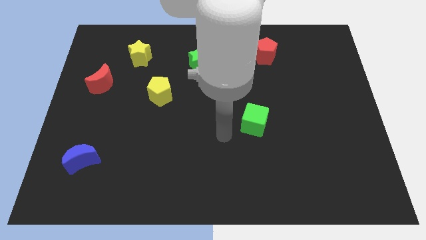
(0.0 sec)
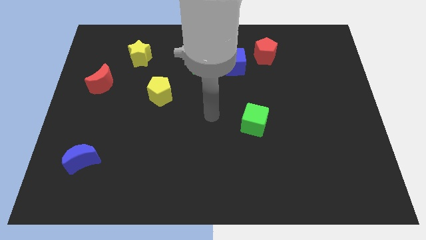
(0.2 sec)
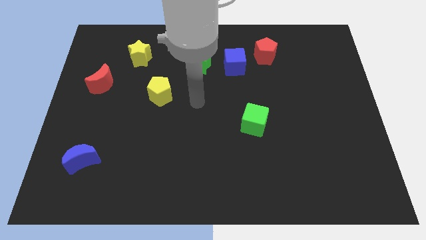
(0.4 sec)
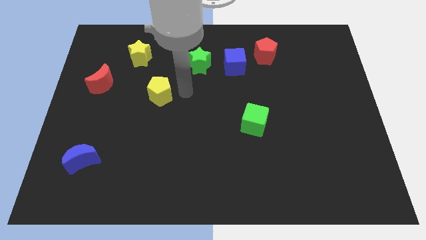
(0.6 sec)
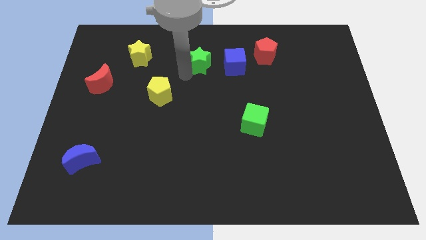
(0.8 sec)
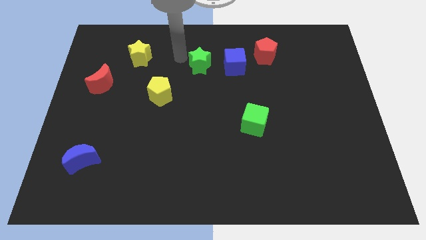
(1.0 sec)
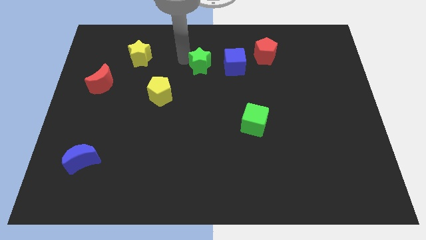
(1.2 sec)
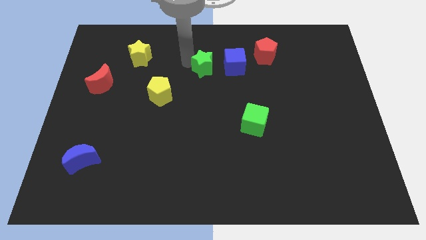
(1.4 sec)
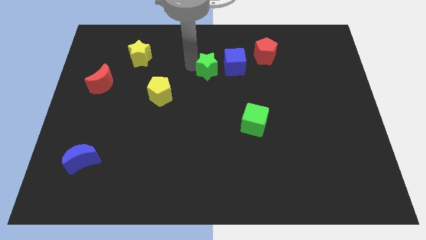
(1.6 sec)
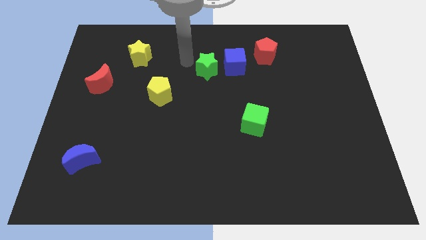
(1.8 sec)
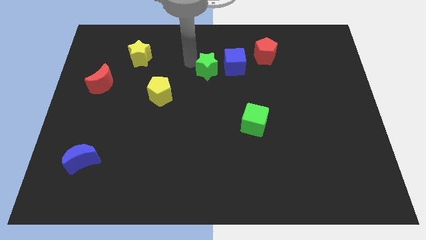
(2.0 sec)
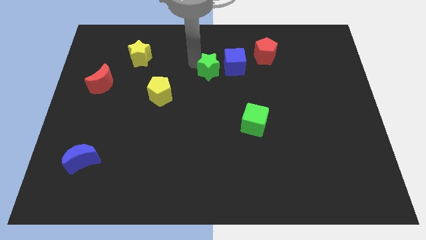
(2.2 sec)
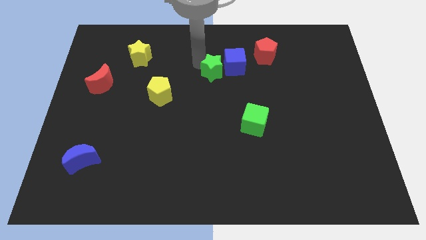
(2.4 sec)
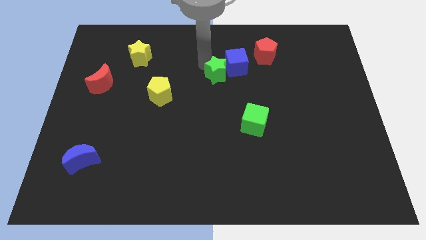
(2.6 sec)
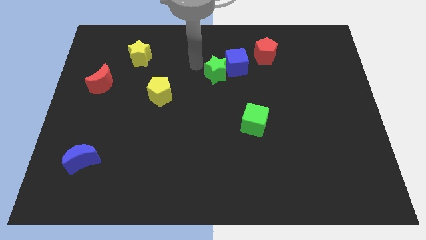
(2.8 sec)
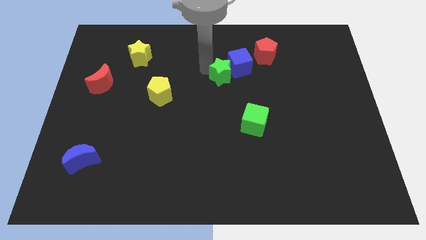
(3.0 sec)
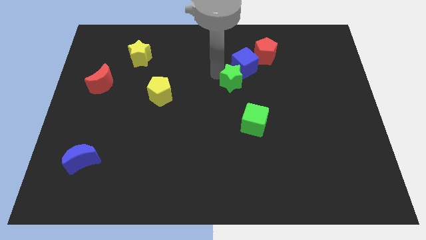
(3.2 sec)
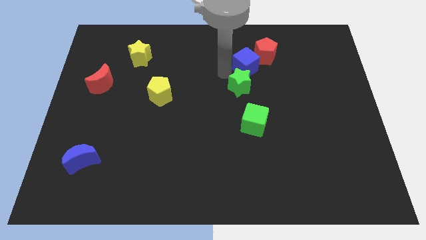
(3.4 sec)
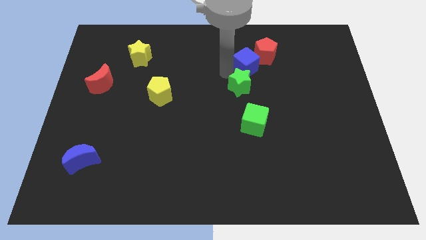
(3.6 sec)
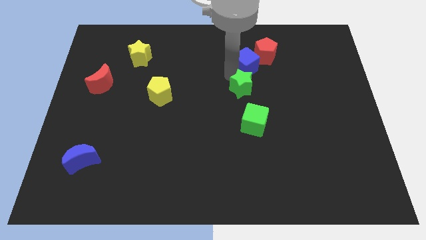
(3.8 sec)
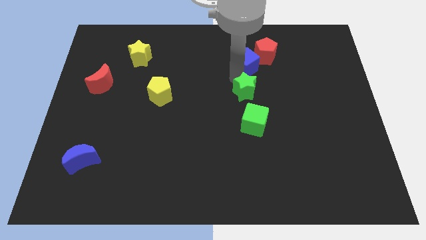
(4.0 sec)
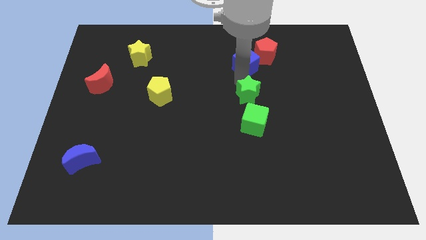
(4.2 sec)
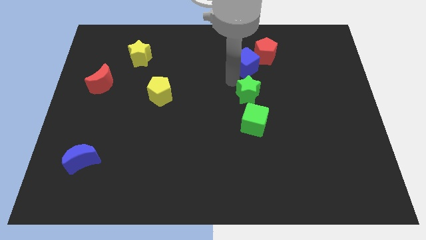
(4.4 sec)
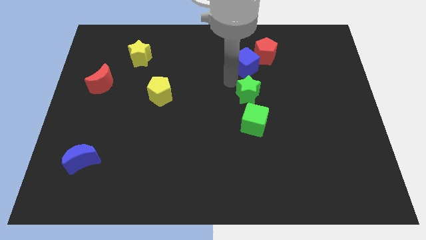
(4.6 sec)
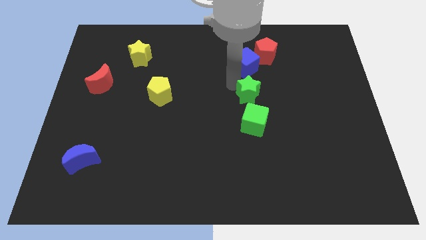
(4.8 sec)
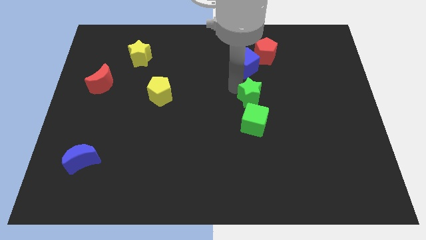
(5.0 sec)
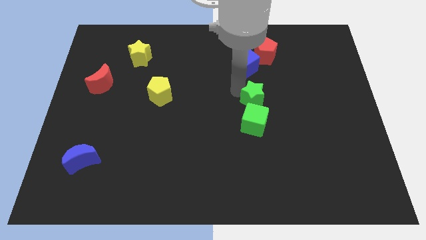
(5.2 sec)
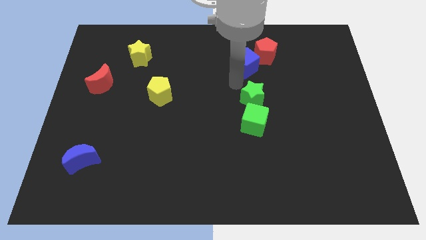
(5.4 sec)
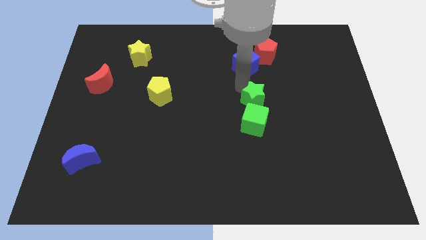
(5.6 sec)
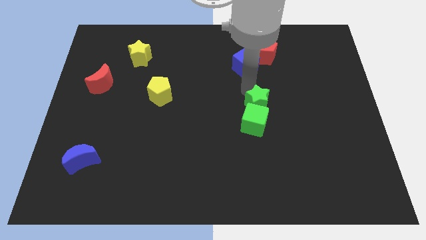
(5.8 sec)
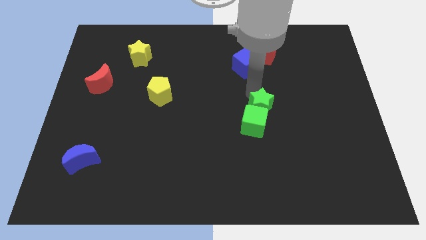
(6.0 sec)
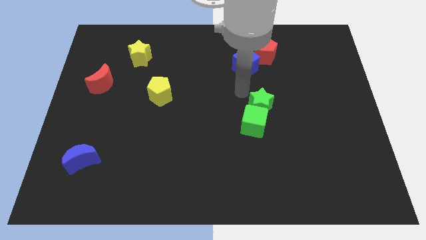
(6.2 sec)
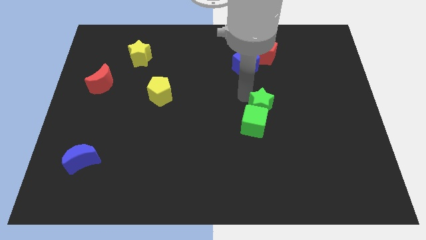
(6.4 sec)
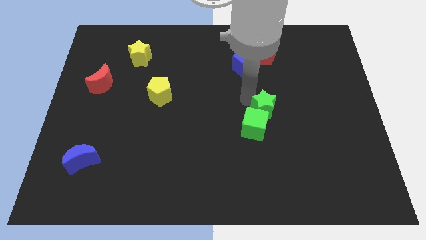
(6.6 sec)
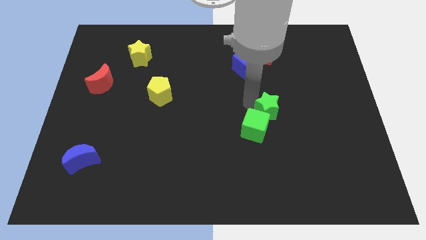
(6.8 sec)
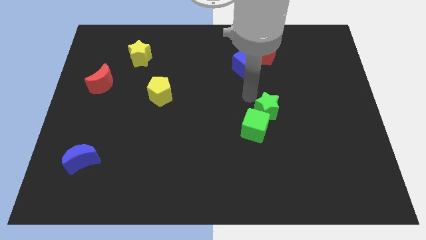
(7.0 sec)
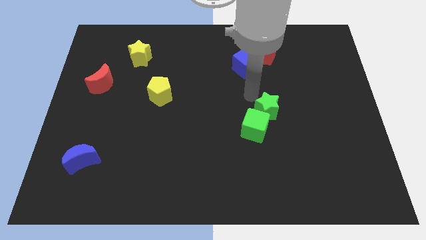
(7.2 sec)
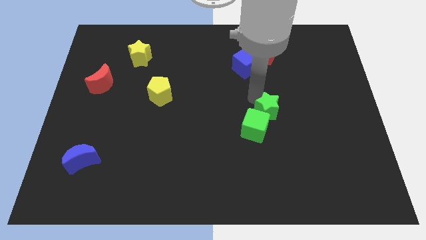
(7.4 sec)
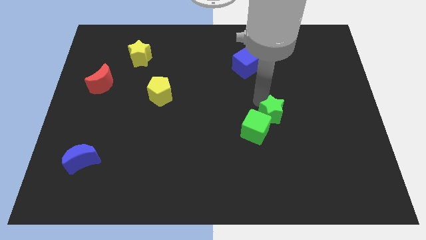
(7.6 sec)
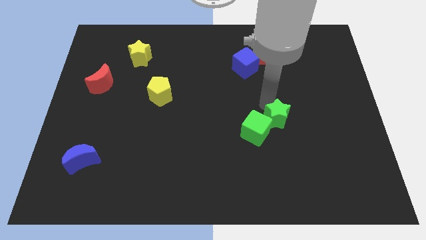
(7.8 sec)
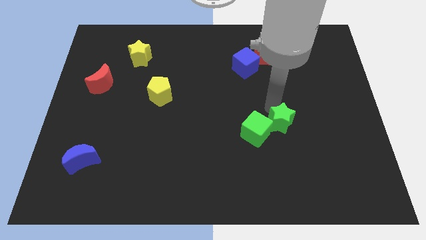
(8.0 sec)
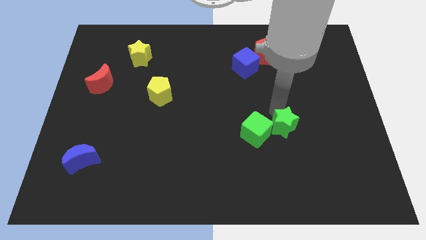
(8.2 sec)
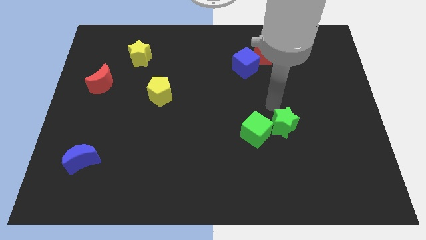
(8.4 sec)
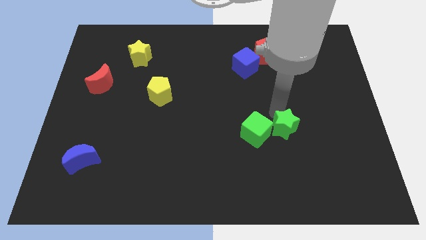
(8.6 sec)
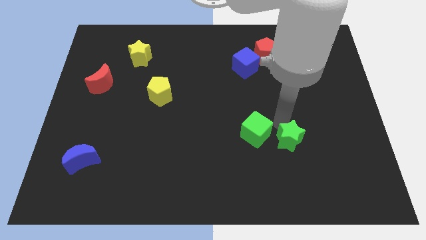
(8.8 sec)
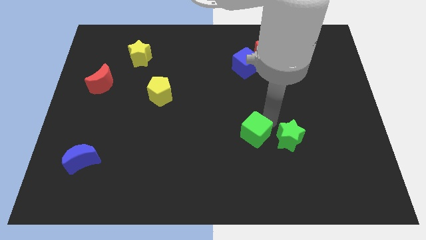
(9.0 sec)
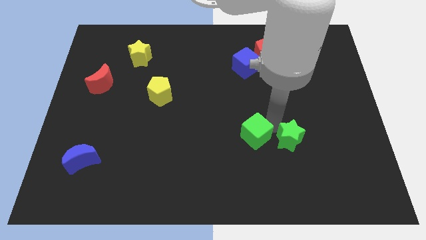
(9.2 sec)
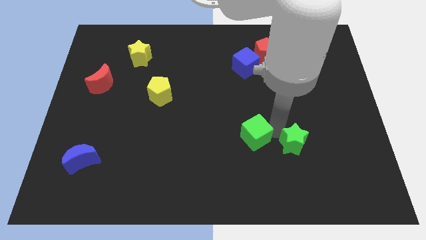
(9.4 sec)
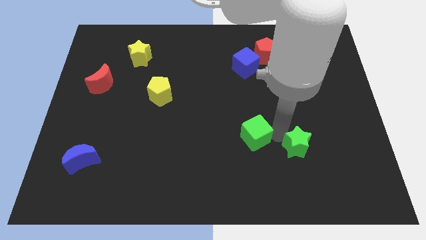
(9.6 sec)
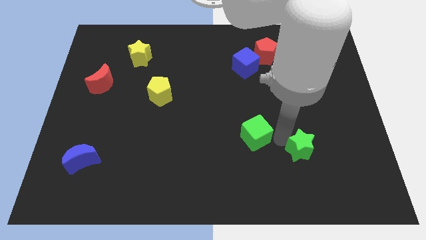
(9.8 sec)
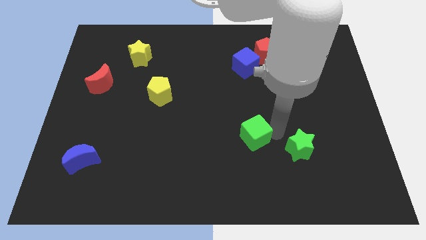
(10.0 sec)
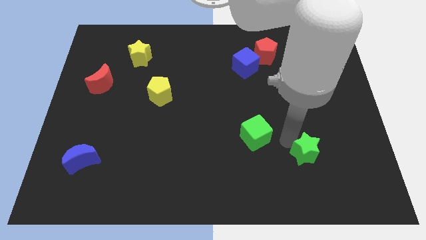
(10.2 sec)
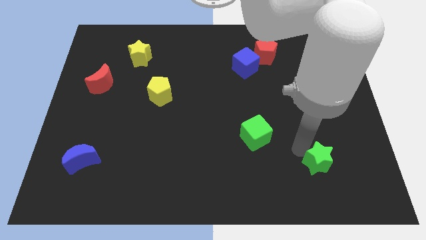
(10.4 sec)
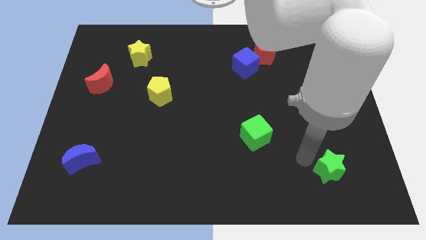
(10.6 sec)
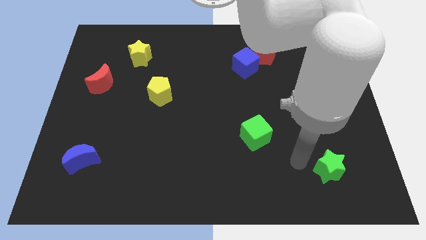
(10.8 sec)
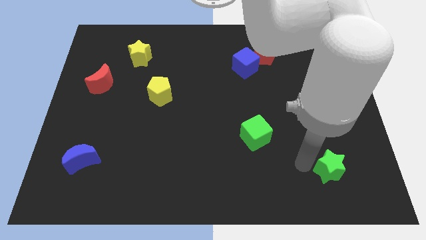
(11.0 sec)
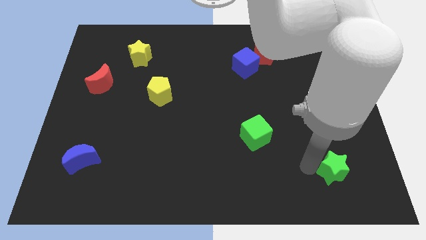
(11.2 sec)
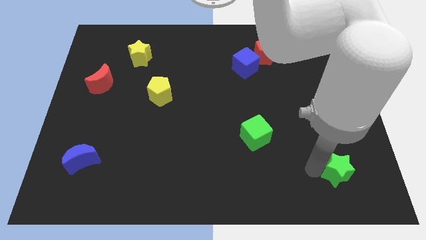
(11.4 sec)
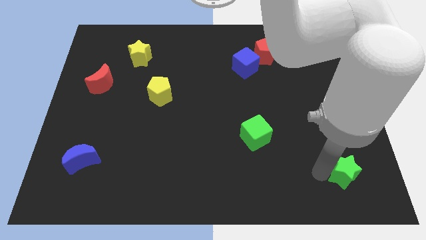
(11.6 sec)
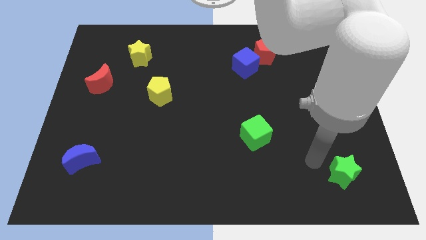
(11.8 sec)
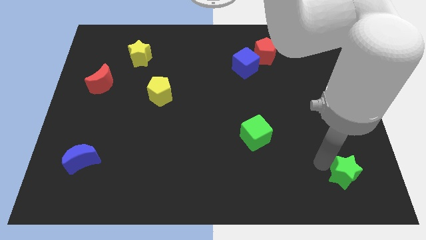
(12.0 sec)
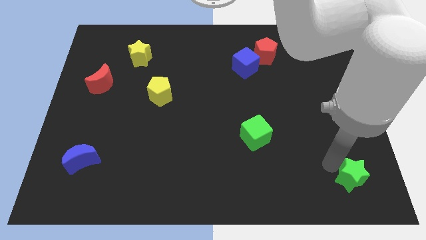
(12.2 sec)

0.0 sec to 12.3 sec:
put the green star to the lower right corner

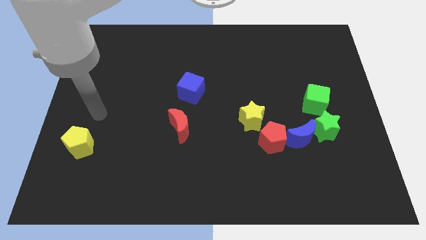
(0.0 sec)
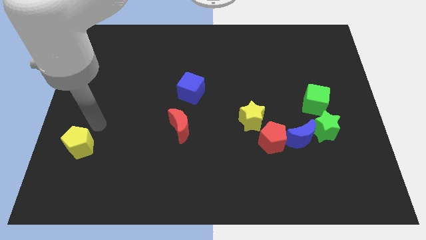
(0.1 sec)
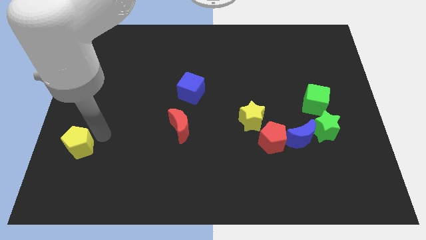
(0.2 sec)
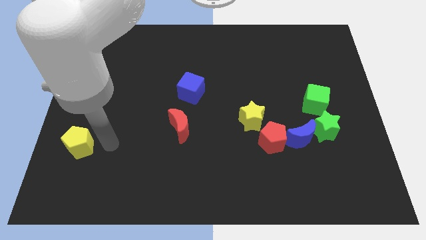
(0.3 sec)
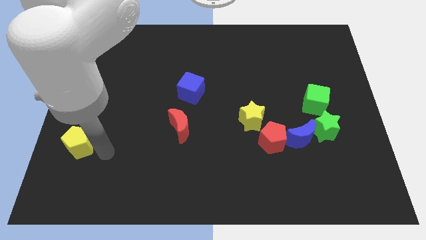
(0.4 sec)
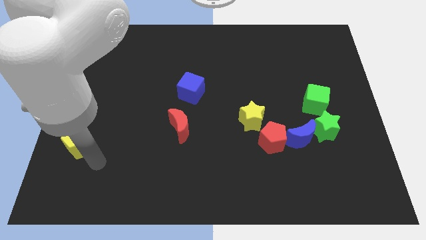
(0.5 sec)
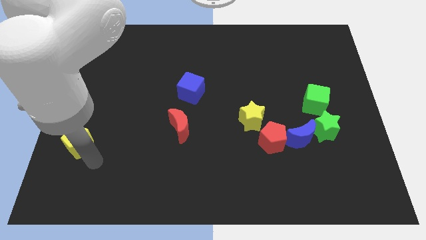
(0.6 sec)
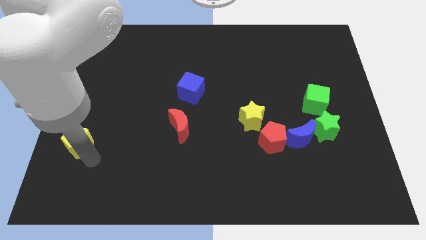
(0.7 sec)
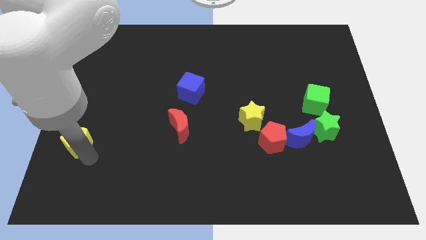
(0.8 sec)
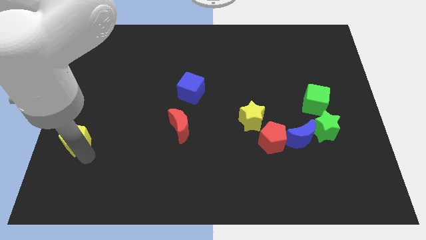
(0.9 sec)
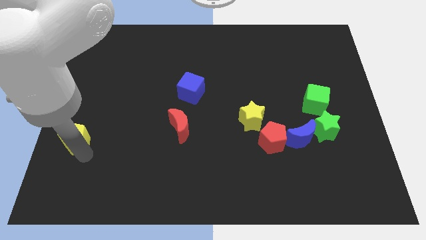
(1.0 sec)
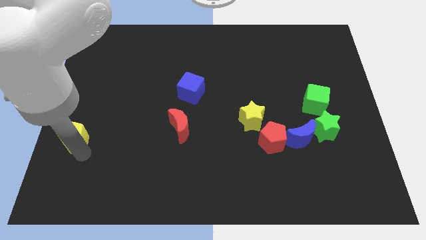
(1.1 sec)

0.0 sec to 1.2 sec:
slide the yellow pentagon to the left side
